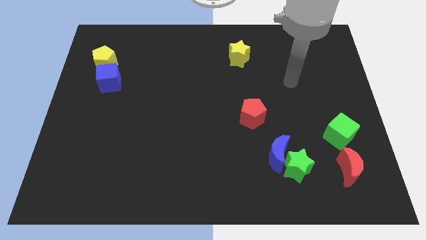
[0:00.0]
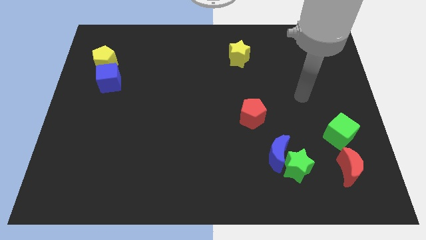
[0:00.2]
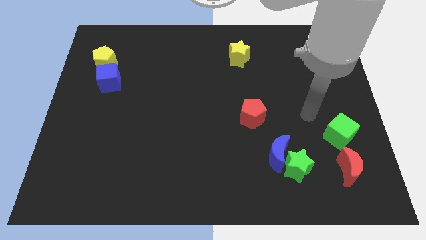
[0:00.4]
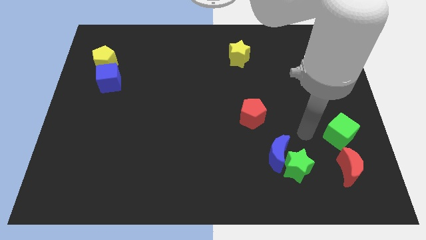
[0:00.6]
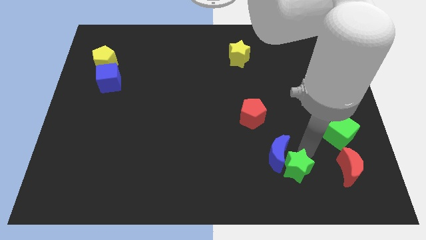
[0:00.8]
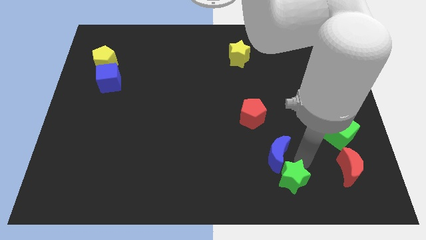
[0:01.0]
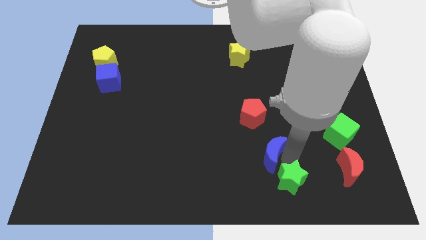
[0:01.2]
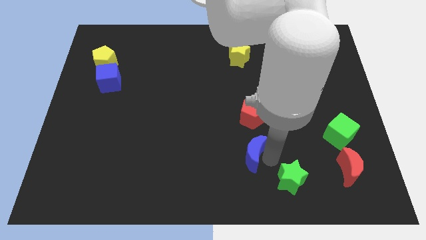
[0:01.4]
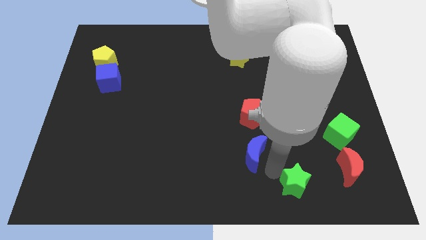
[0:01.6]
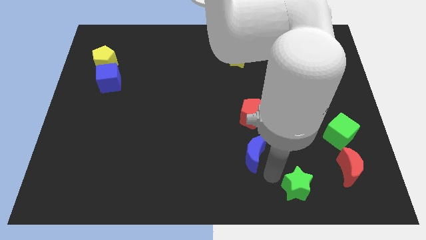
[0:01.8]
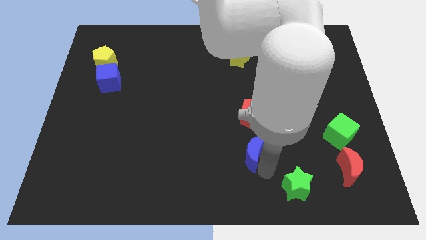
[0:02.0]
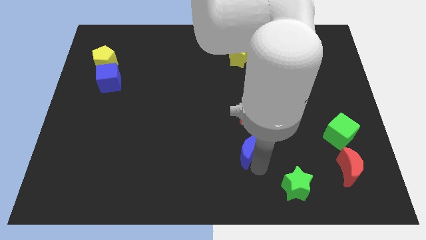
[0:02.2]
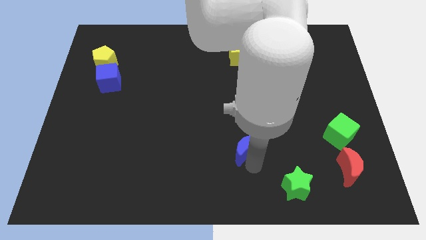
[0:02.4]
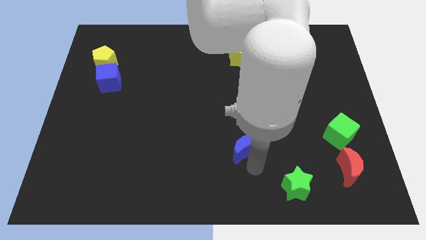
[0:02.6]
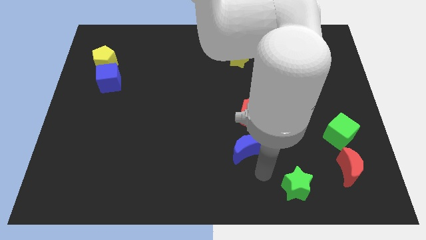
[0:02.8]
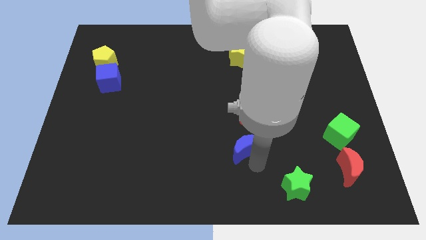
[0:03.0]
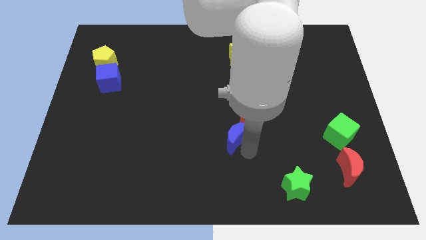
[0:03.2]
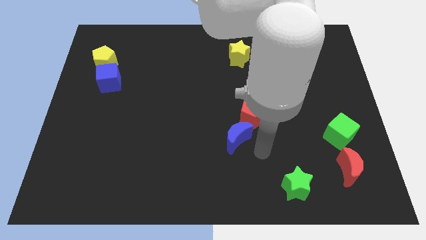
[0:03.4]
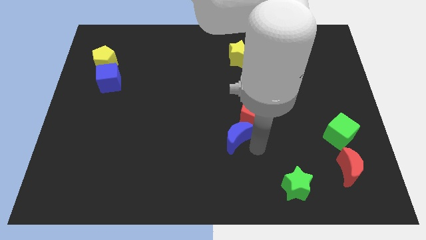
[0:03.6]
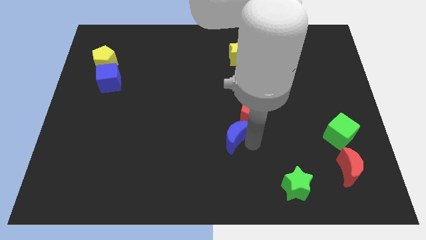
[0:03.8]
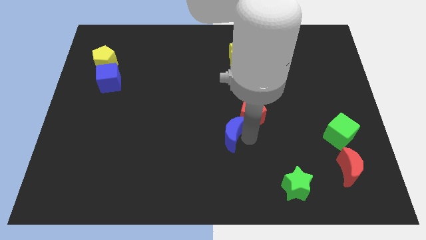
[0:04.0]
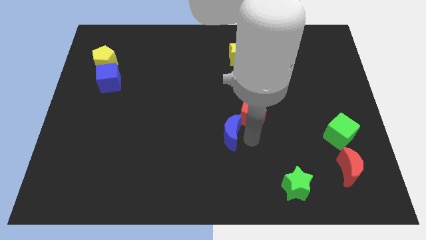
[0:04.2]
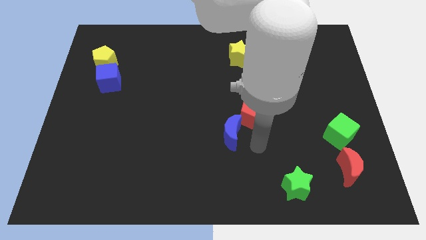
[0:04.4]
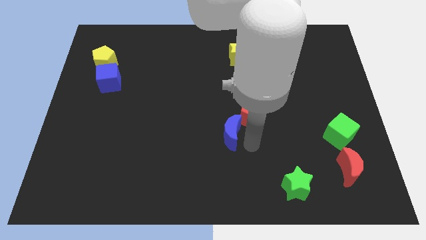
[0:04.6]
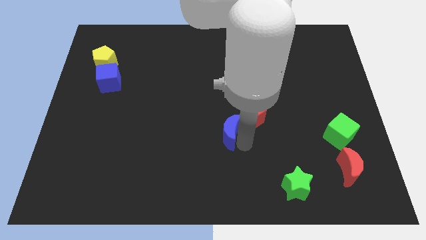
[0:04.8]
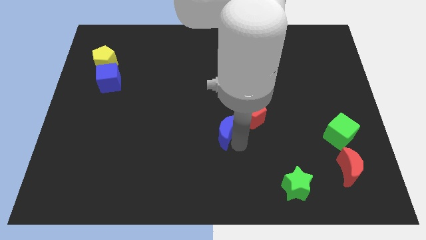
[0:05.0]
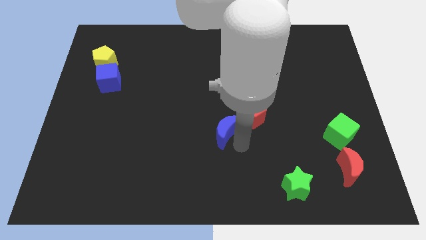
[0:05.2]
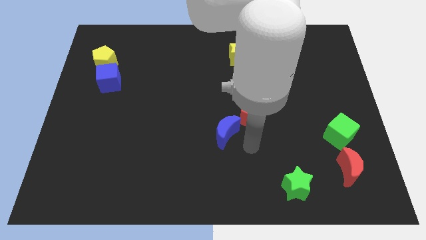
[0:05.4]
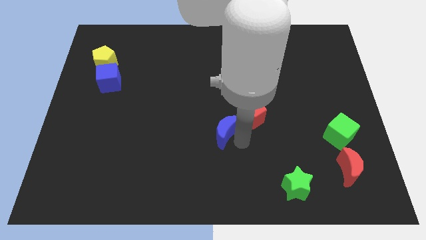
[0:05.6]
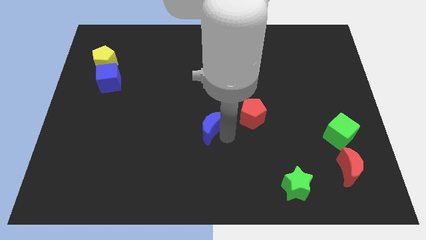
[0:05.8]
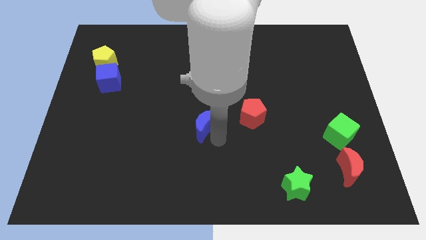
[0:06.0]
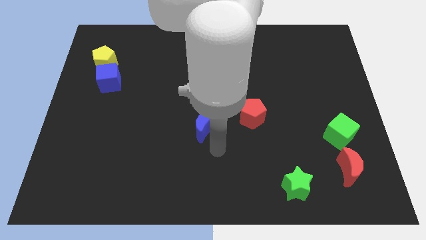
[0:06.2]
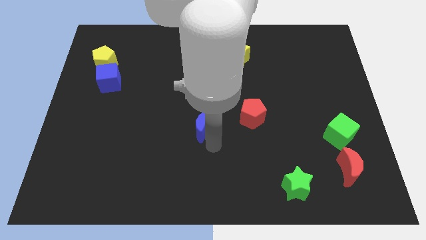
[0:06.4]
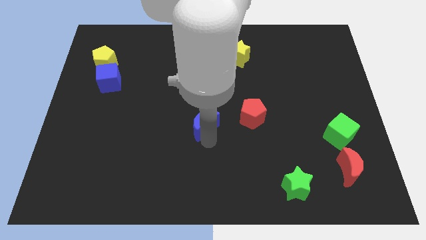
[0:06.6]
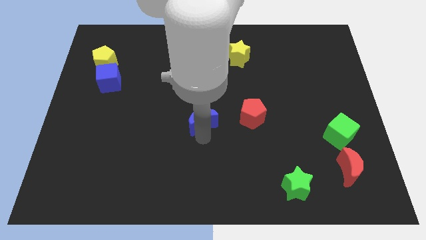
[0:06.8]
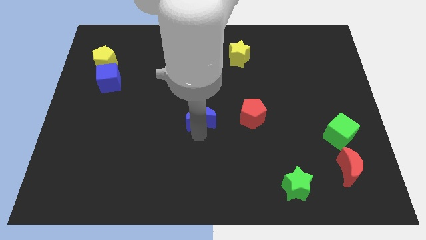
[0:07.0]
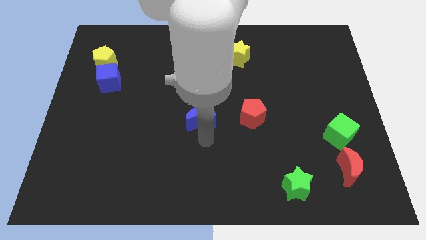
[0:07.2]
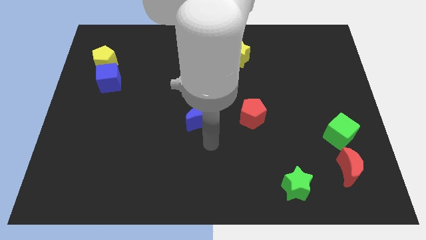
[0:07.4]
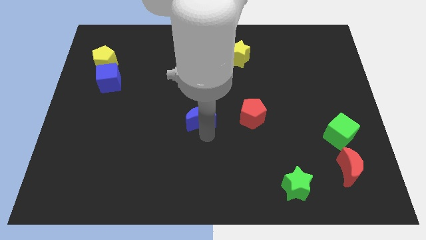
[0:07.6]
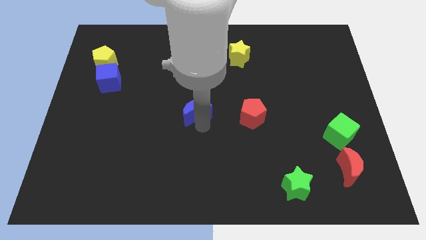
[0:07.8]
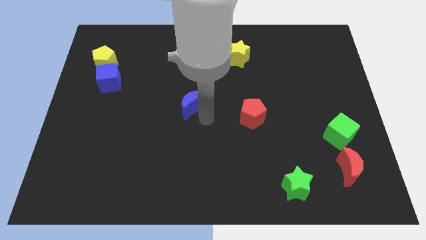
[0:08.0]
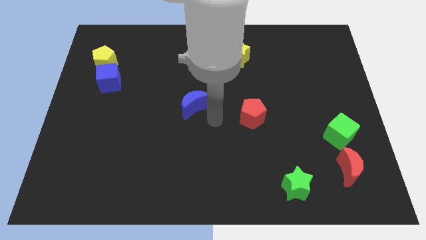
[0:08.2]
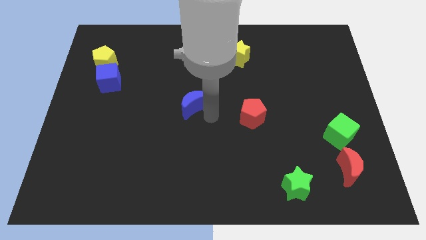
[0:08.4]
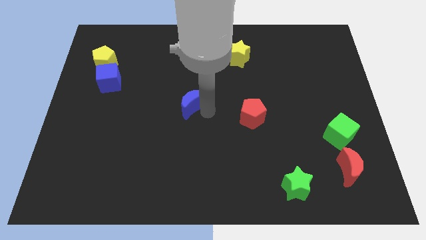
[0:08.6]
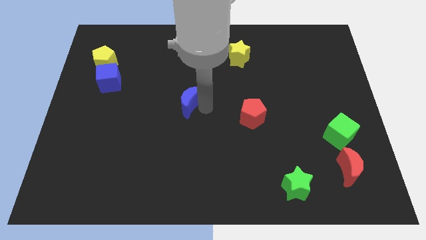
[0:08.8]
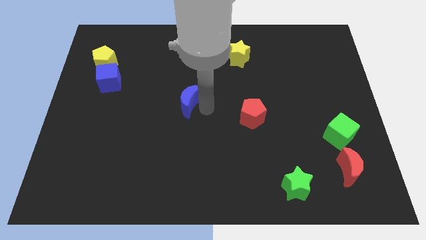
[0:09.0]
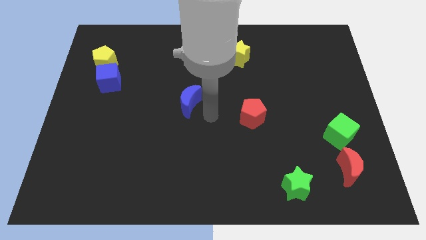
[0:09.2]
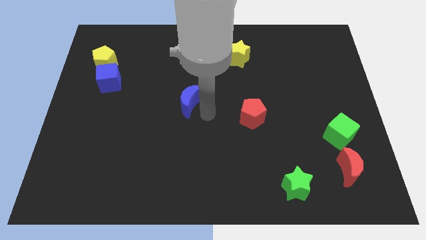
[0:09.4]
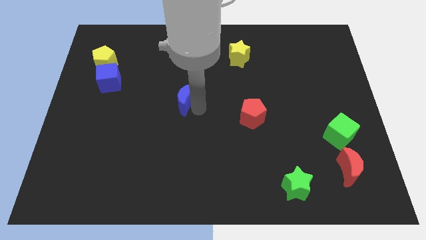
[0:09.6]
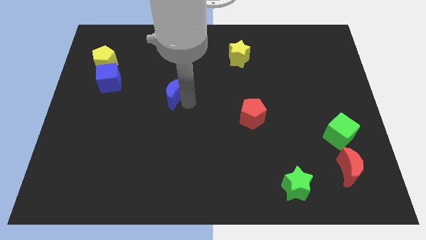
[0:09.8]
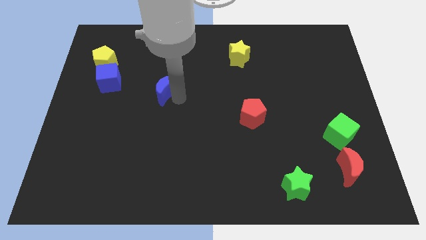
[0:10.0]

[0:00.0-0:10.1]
push the blue moon just right of the blue cube

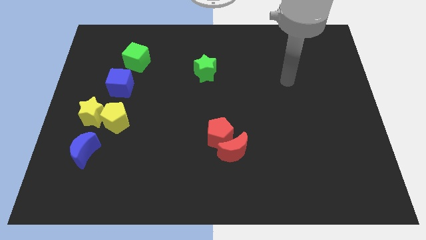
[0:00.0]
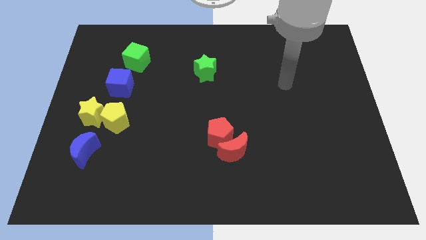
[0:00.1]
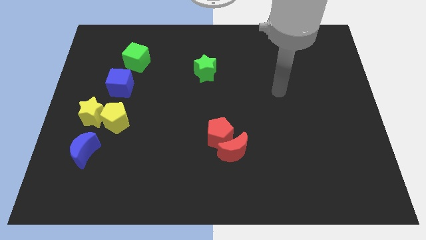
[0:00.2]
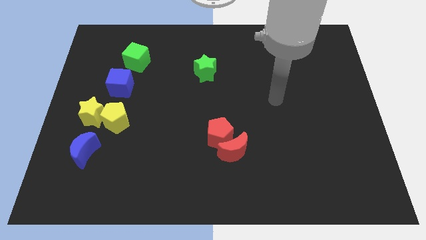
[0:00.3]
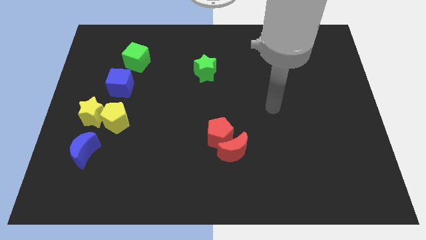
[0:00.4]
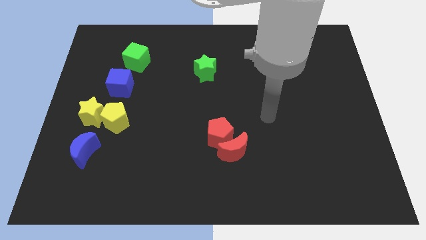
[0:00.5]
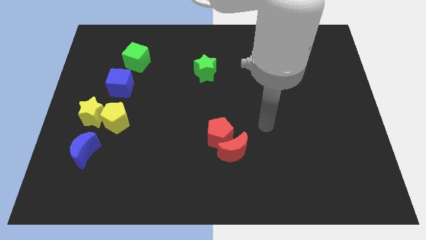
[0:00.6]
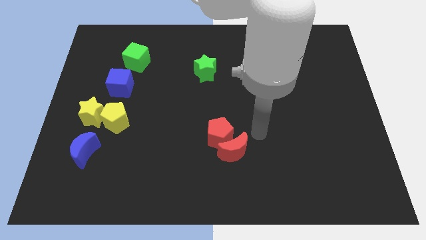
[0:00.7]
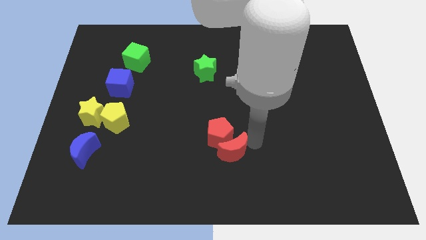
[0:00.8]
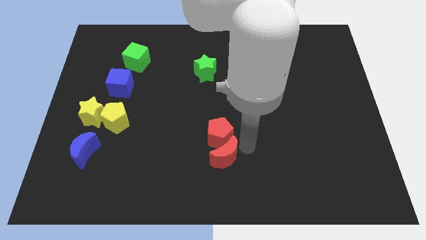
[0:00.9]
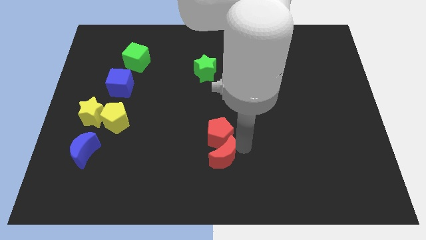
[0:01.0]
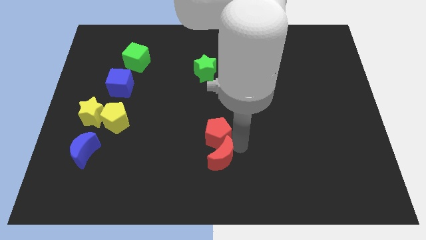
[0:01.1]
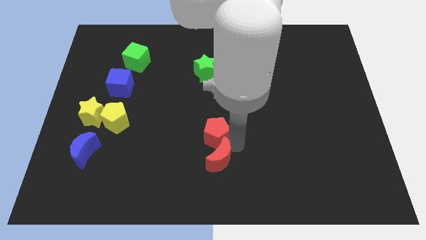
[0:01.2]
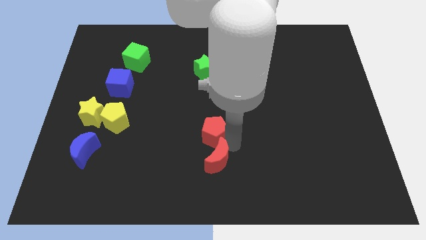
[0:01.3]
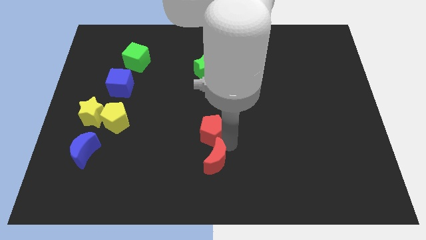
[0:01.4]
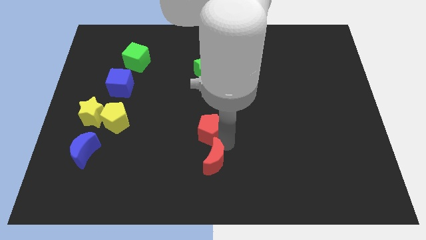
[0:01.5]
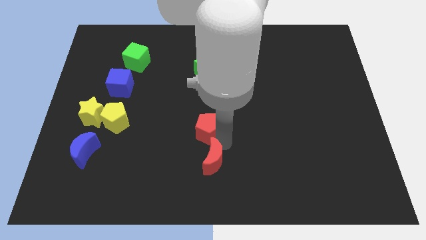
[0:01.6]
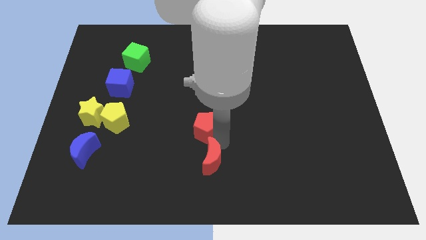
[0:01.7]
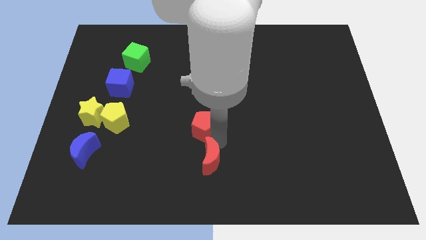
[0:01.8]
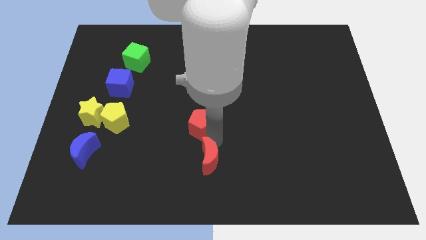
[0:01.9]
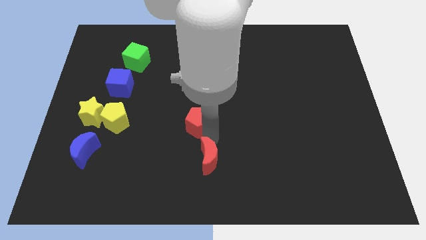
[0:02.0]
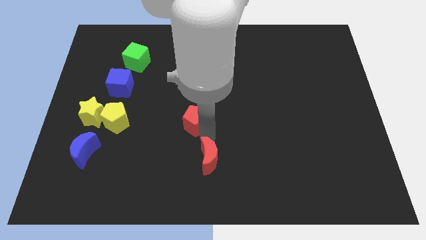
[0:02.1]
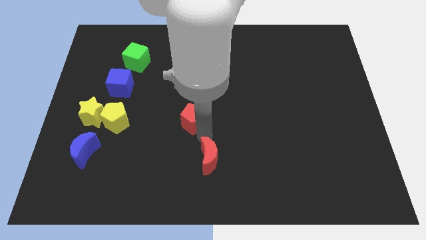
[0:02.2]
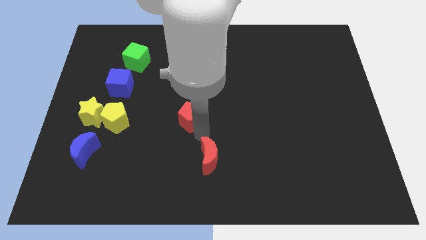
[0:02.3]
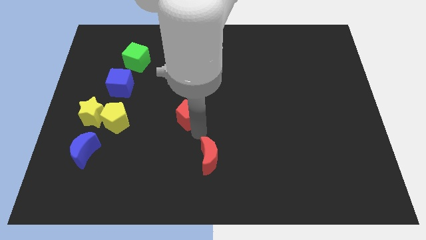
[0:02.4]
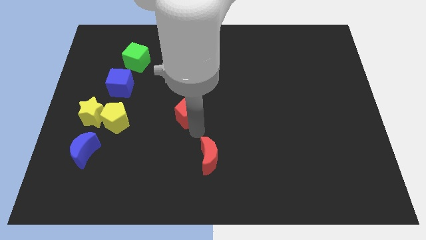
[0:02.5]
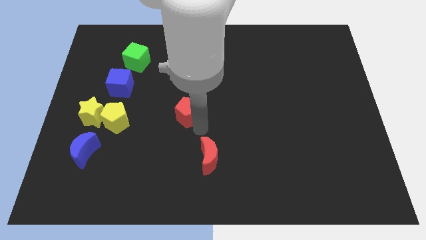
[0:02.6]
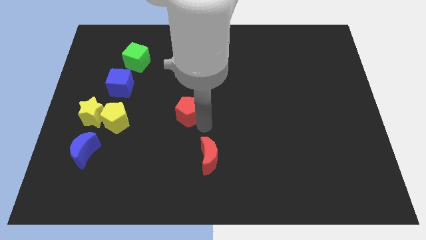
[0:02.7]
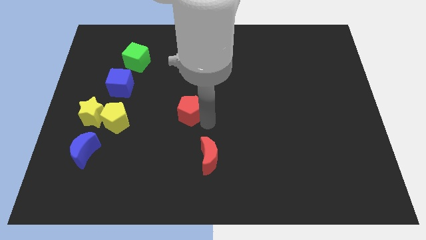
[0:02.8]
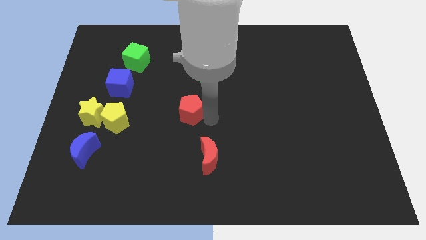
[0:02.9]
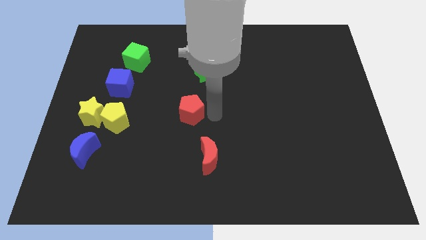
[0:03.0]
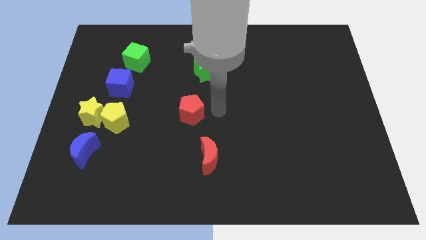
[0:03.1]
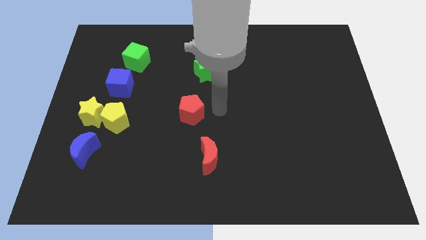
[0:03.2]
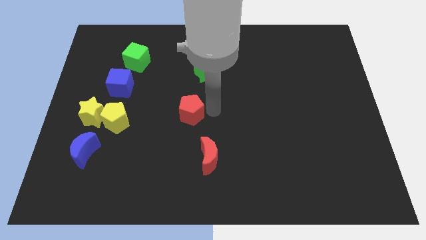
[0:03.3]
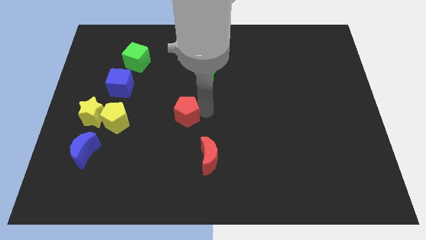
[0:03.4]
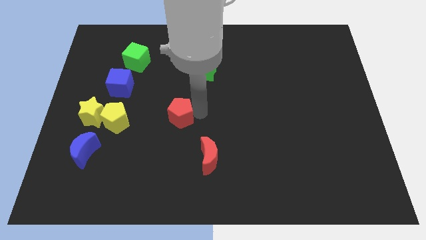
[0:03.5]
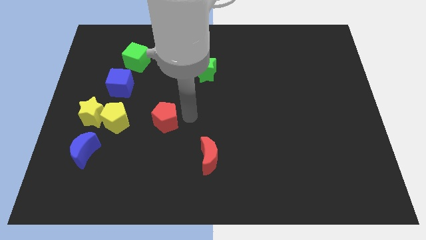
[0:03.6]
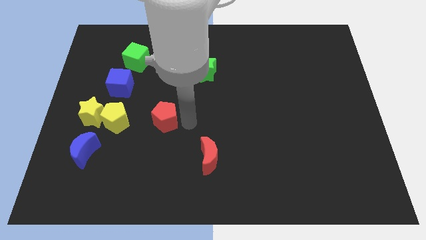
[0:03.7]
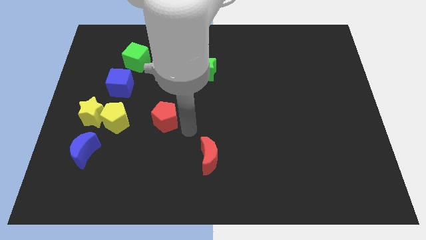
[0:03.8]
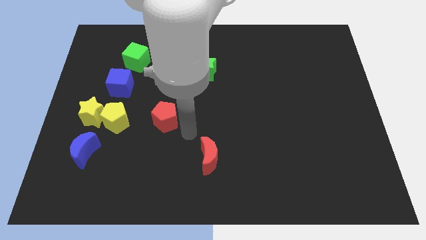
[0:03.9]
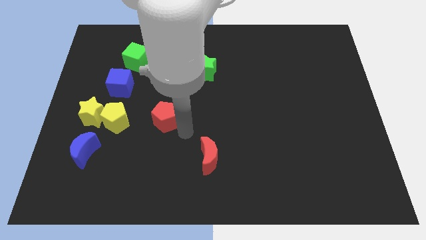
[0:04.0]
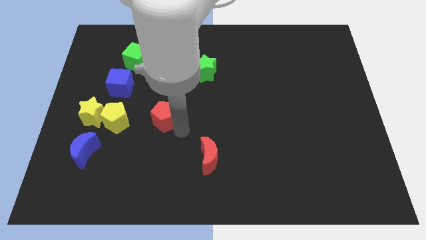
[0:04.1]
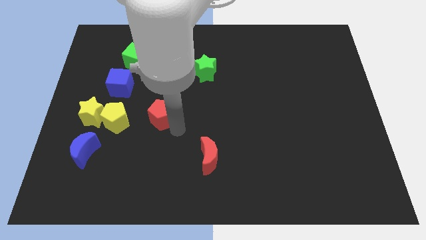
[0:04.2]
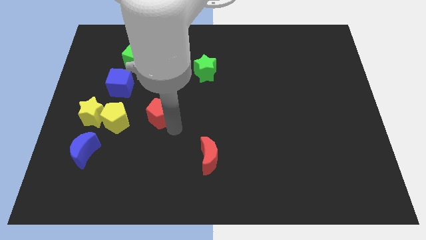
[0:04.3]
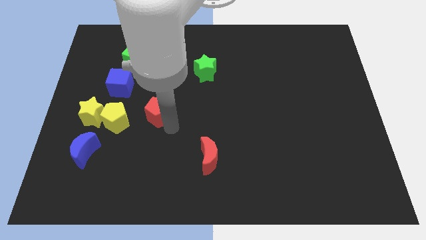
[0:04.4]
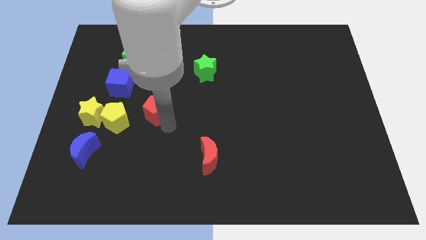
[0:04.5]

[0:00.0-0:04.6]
move the red pentagon to the bottom right side of the blue cube
